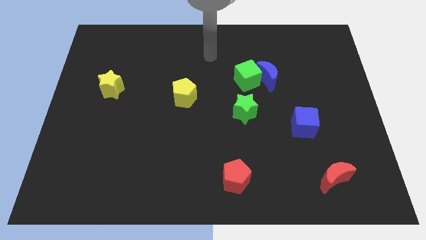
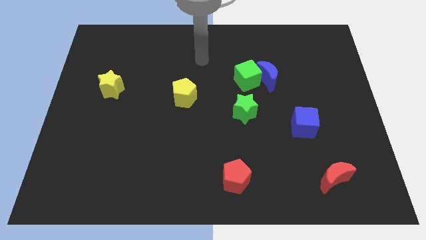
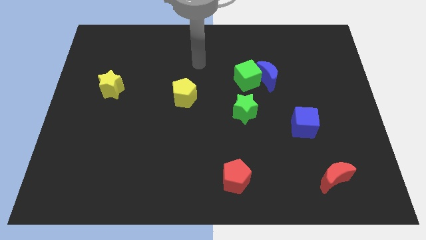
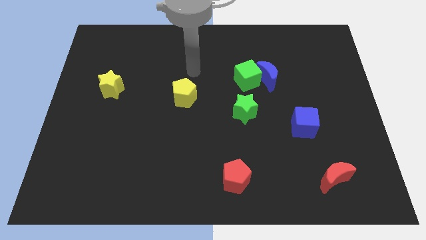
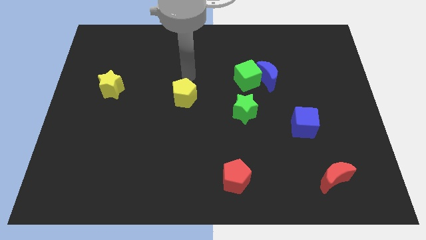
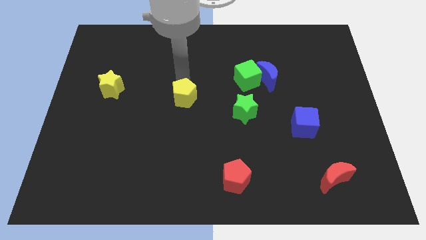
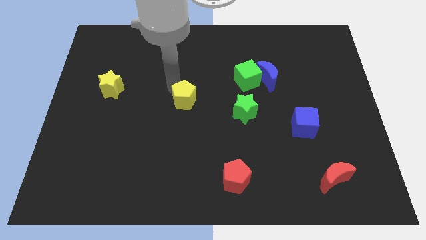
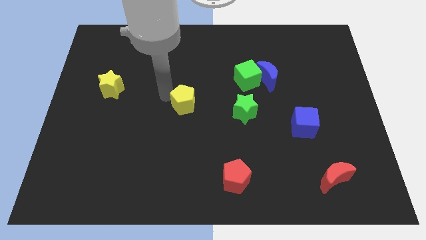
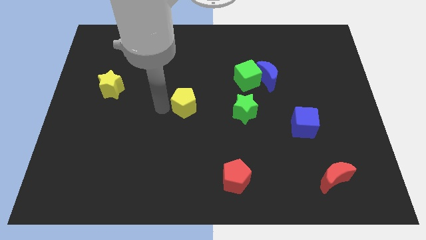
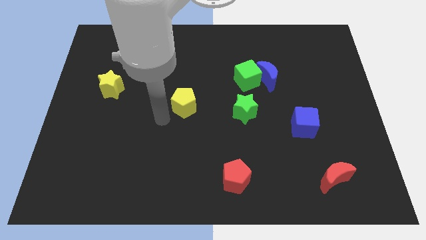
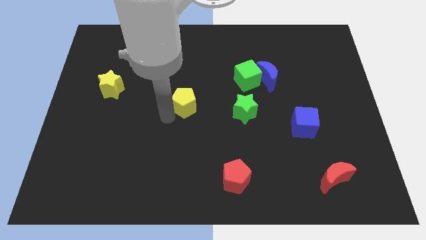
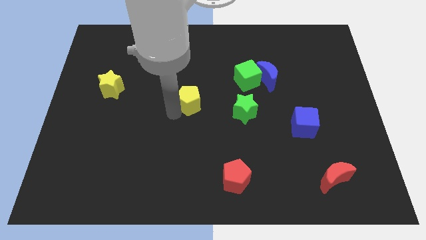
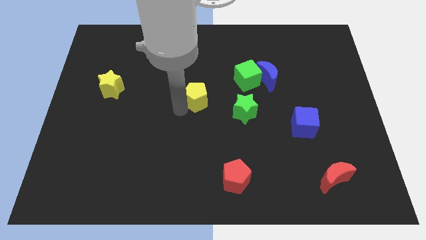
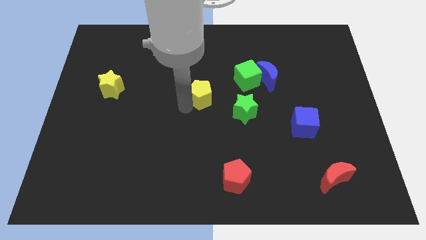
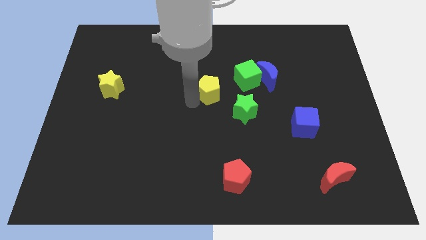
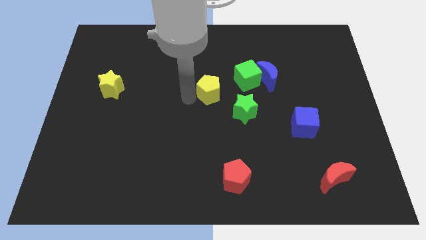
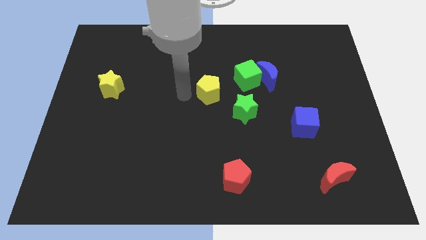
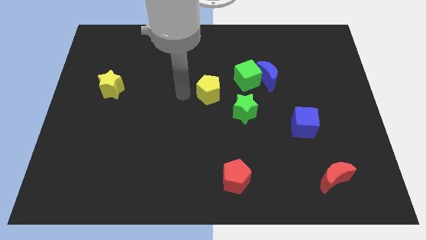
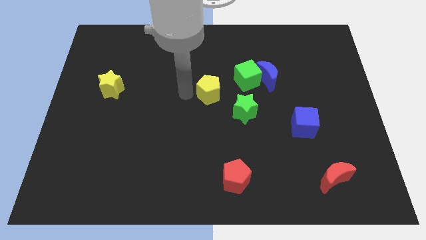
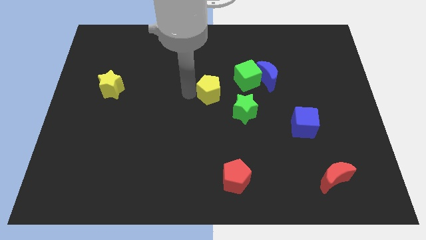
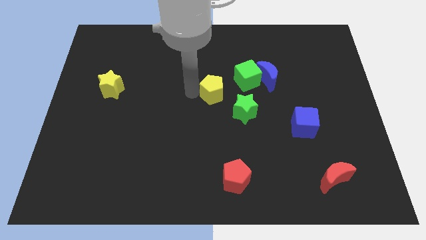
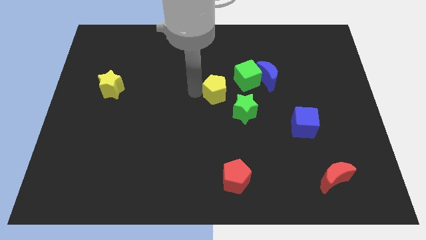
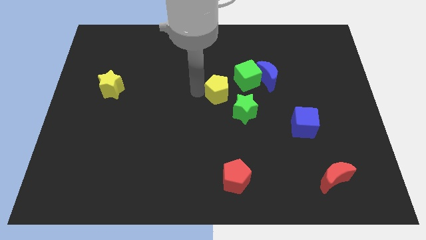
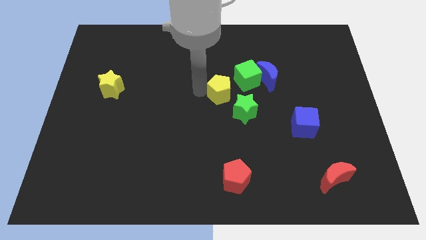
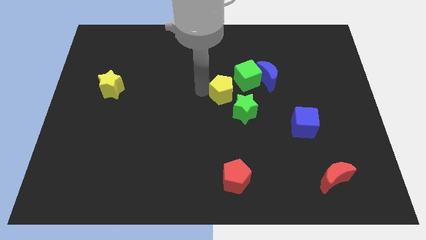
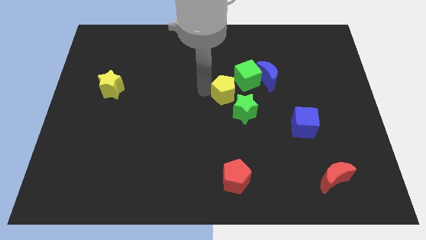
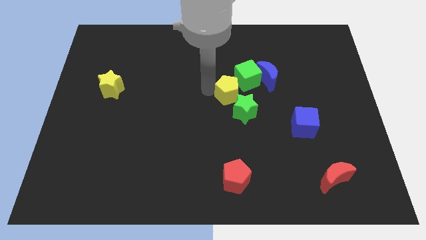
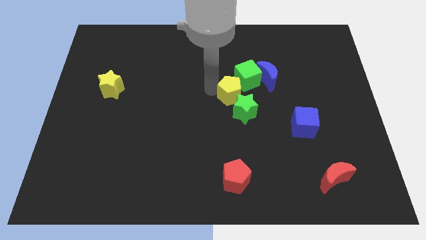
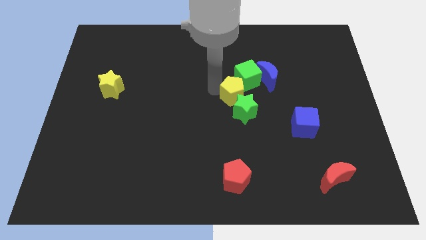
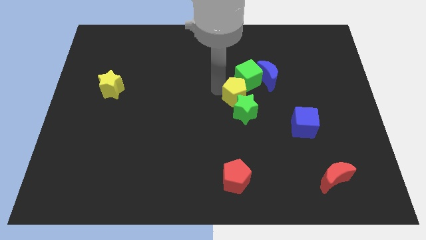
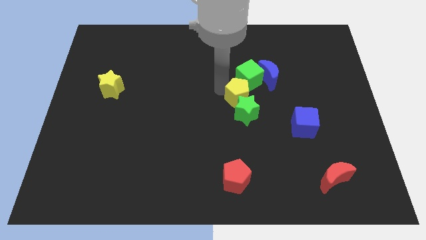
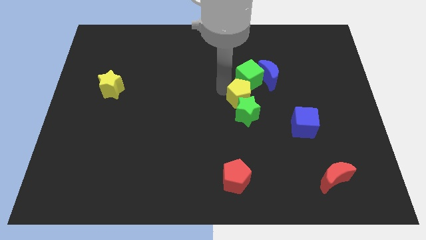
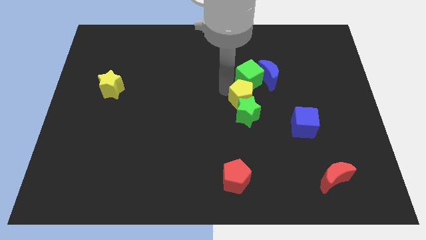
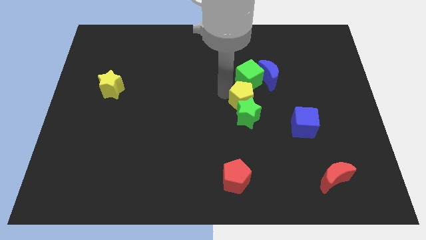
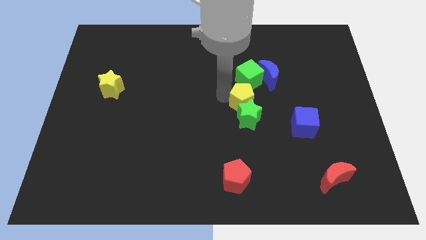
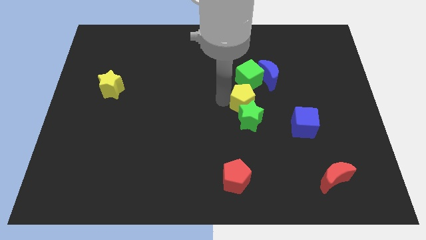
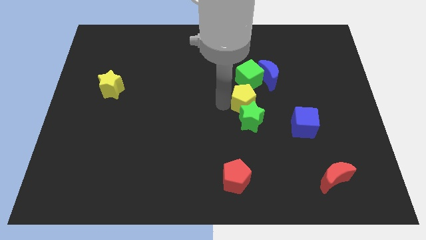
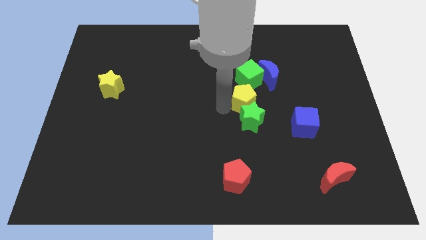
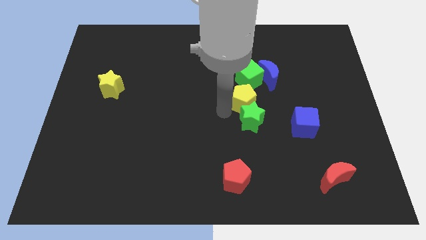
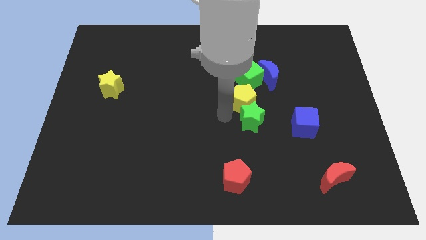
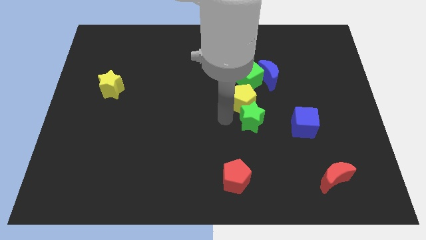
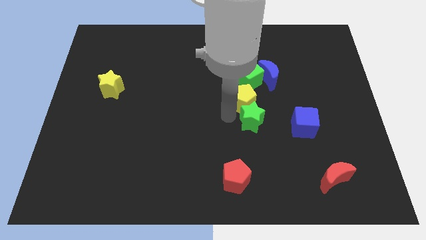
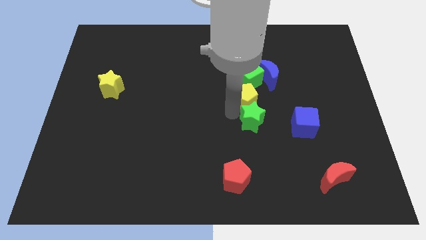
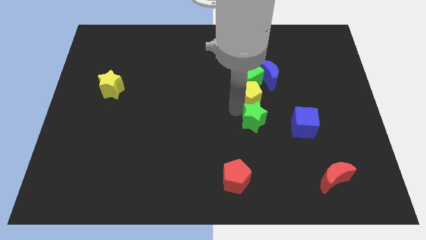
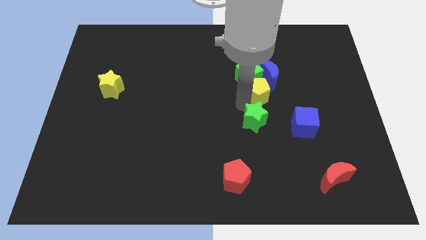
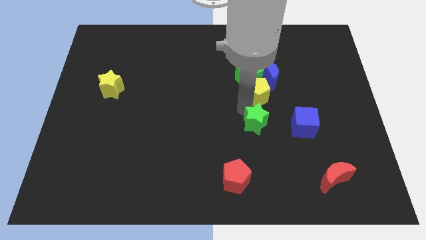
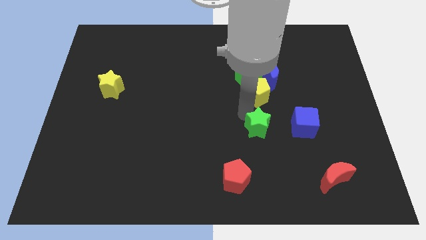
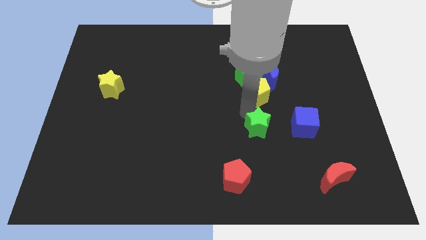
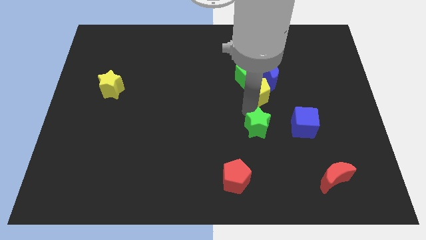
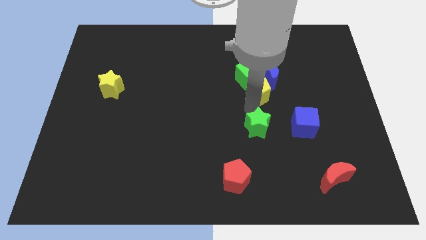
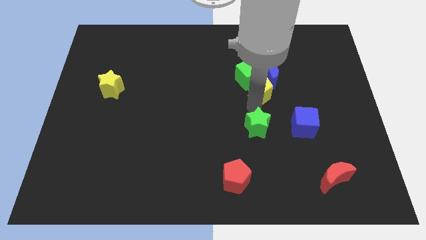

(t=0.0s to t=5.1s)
push the yellow pentagon close to the blue moon

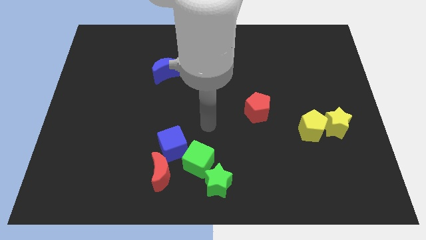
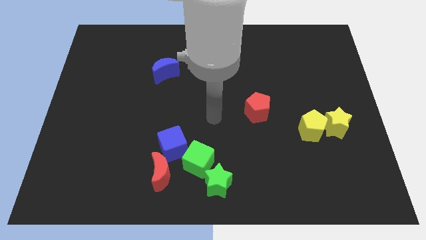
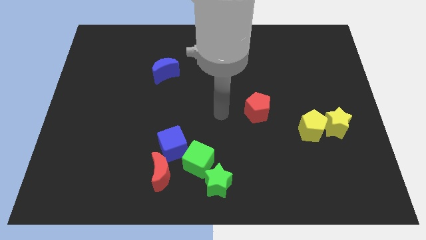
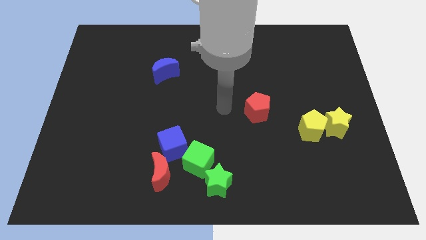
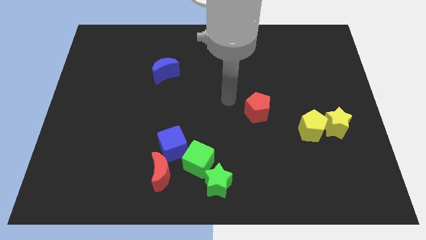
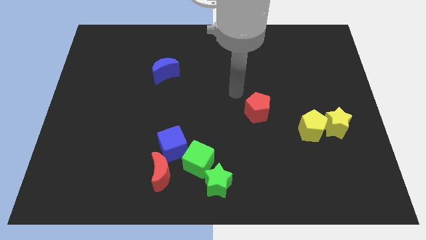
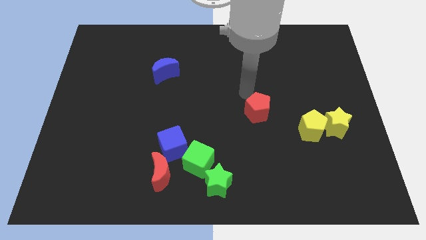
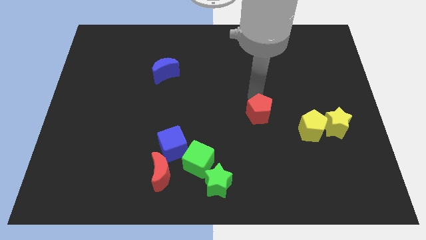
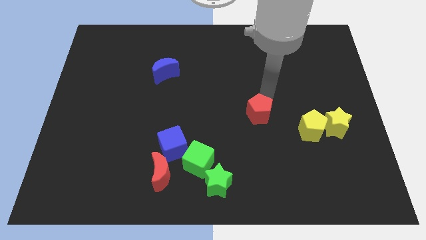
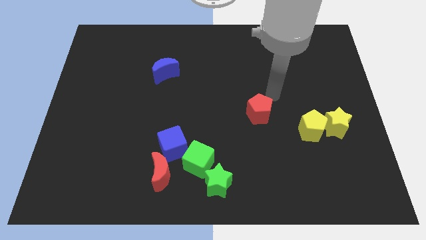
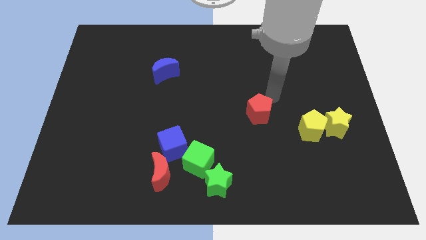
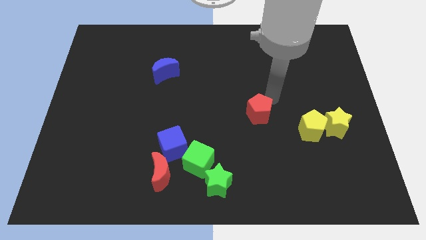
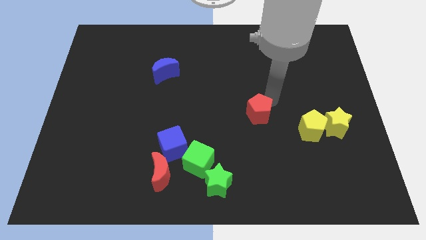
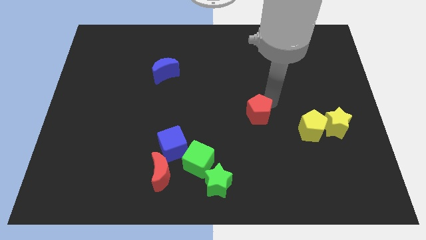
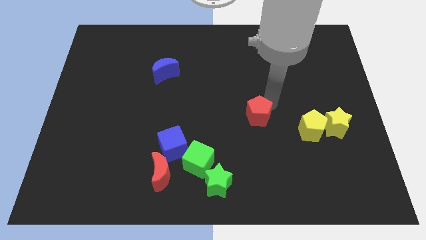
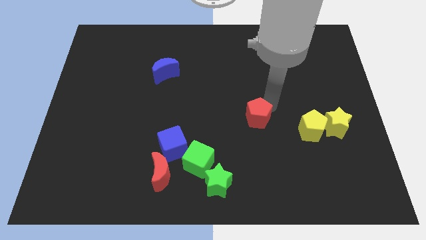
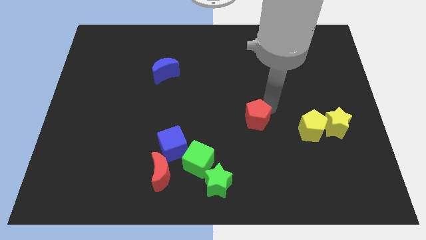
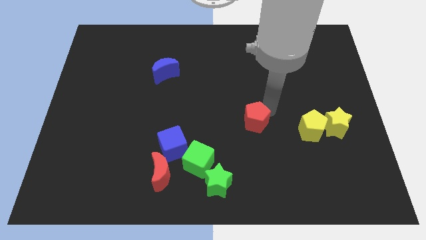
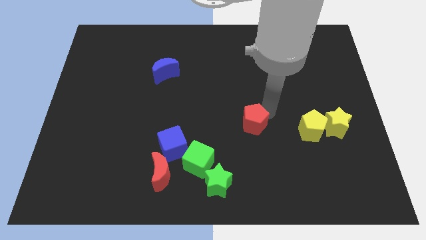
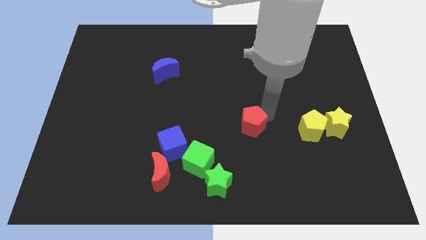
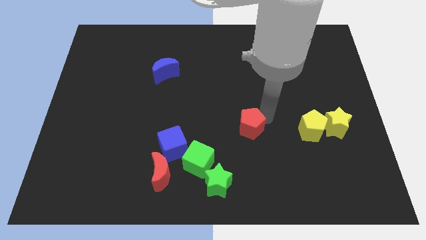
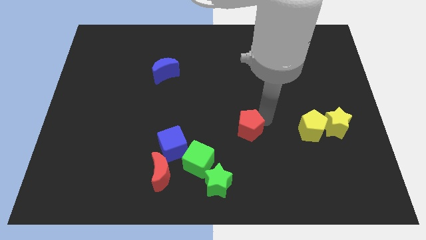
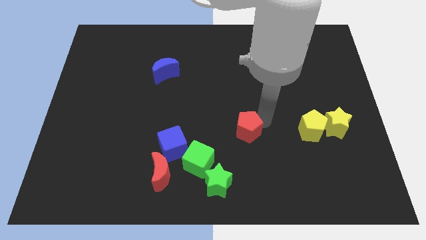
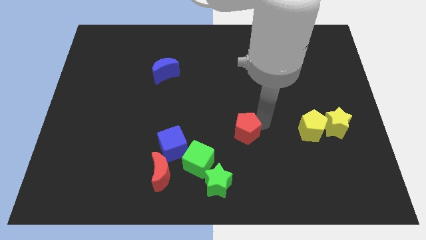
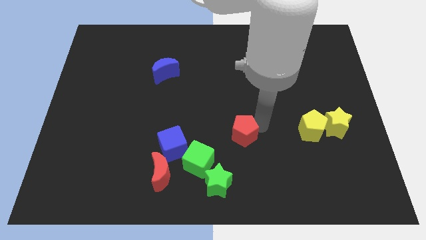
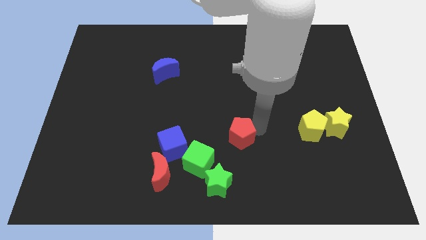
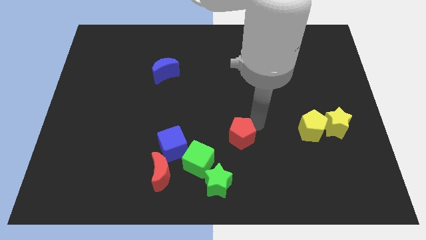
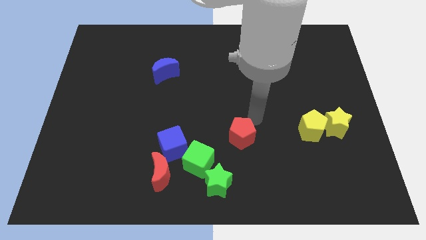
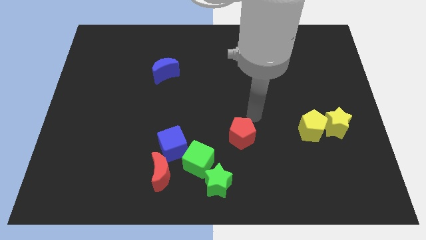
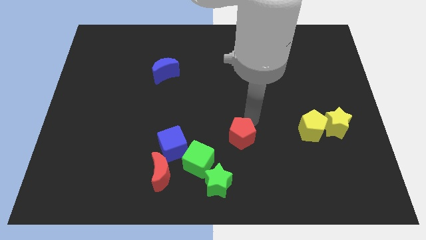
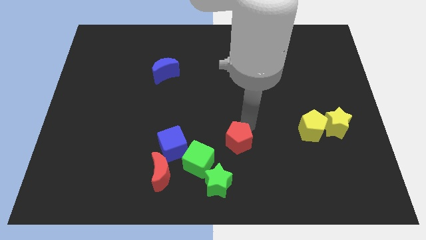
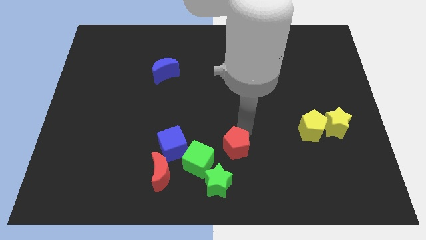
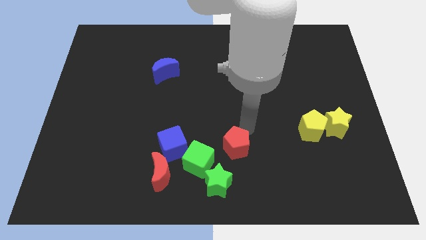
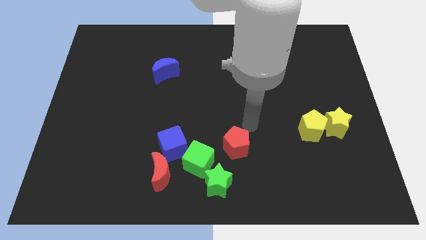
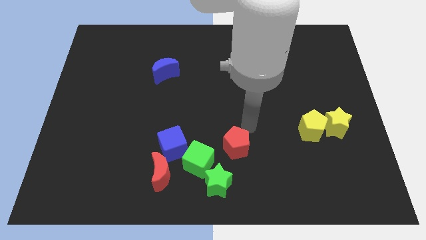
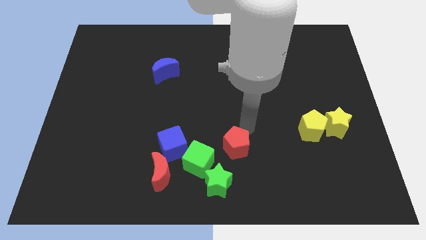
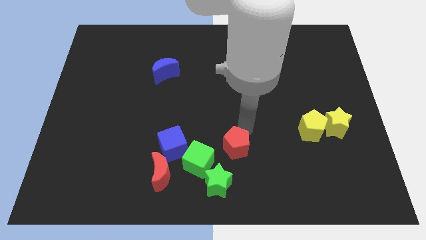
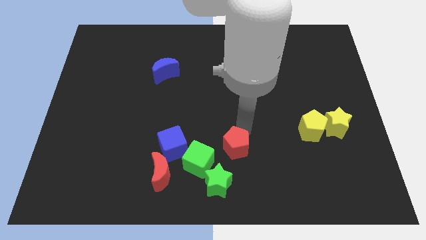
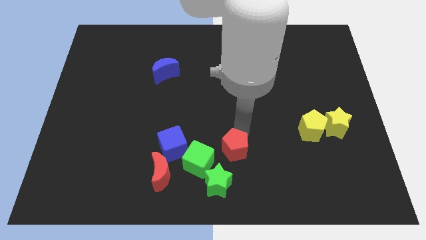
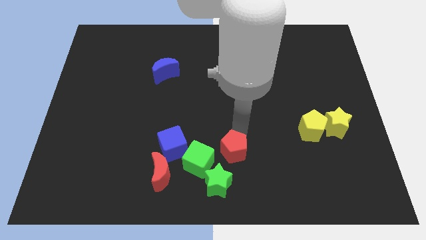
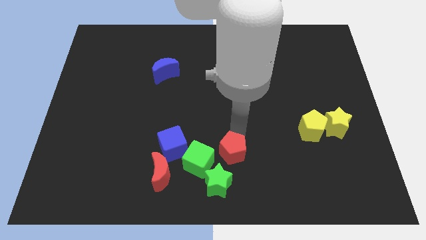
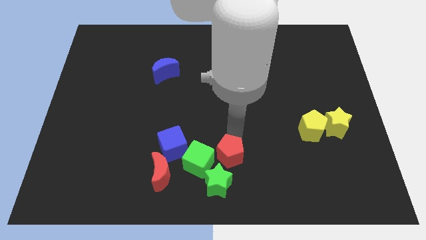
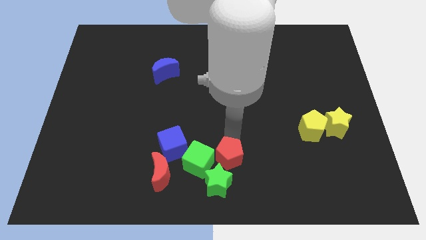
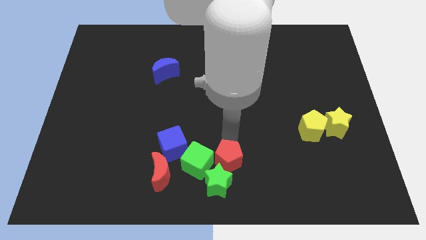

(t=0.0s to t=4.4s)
move the red pentagon close to the green star
